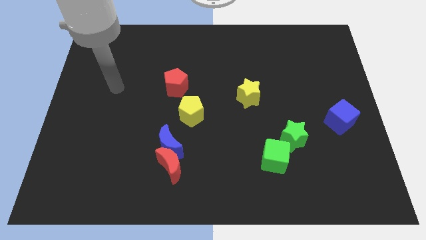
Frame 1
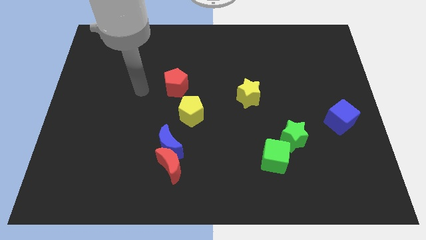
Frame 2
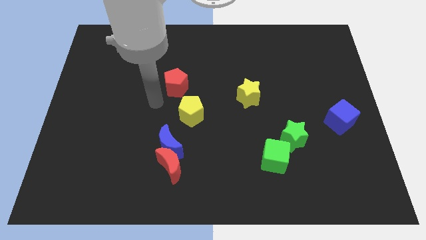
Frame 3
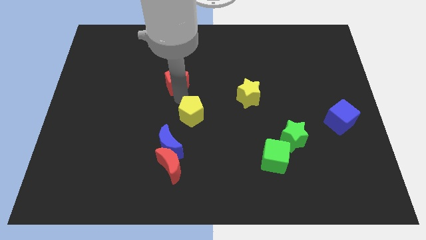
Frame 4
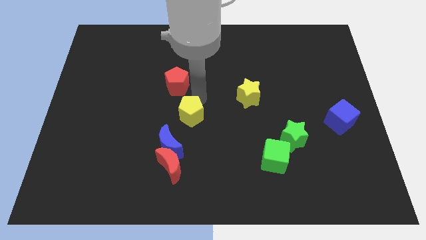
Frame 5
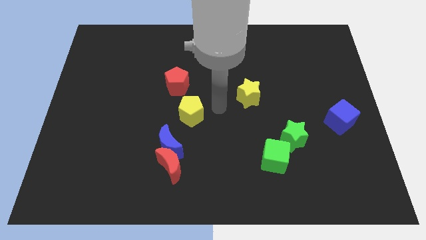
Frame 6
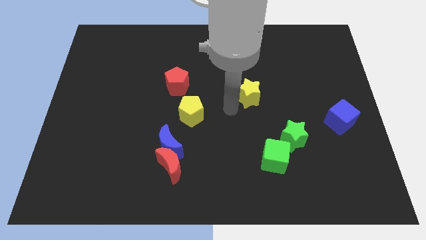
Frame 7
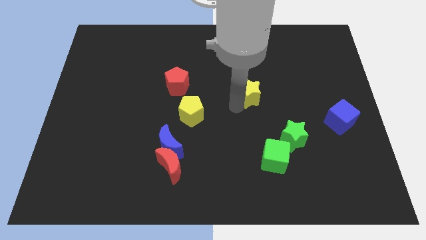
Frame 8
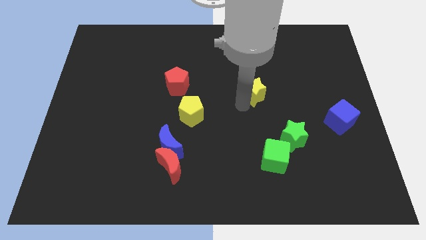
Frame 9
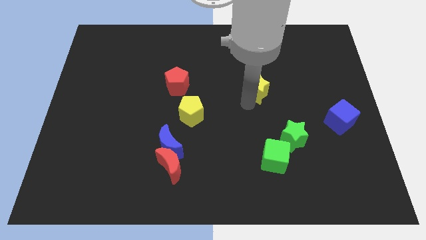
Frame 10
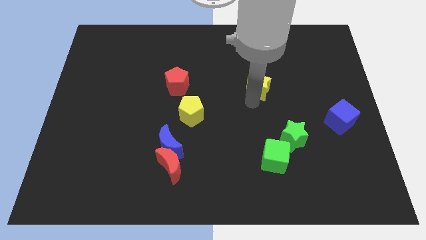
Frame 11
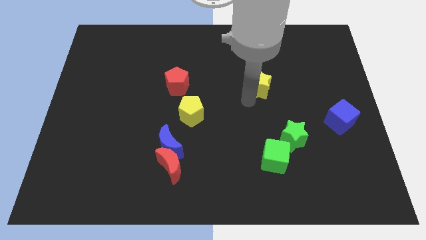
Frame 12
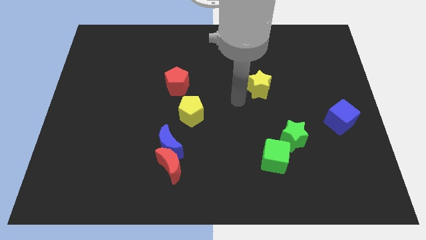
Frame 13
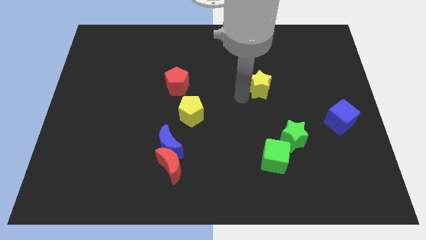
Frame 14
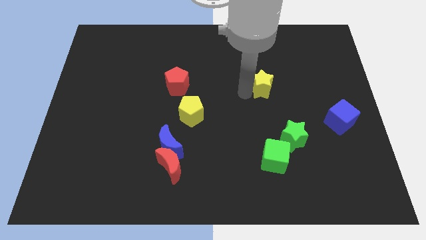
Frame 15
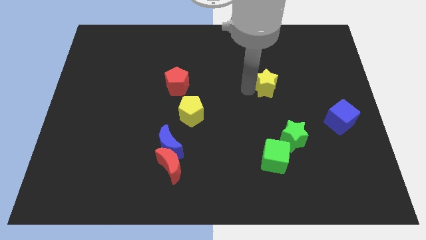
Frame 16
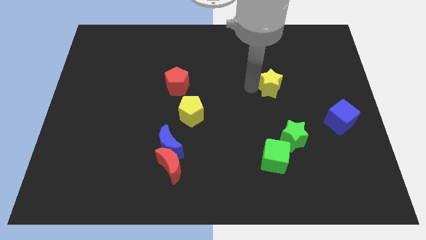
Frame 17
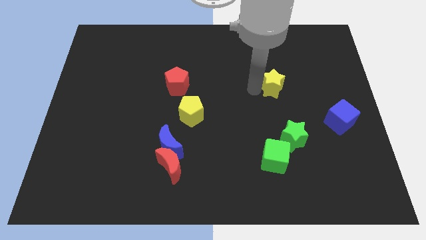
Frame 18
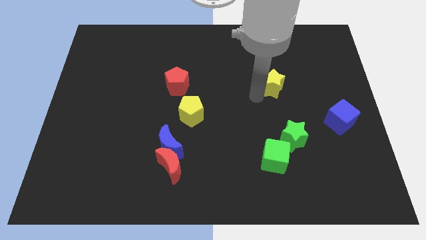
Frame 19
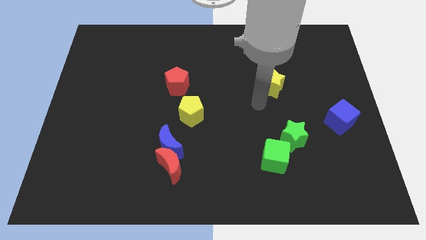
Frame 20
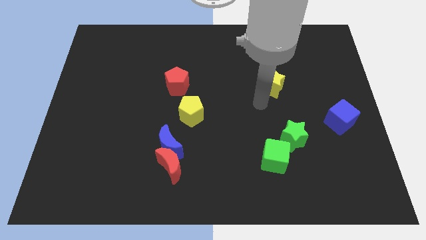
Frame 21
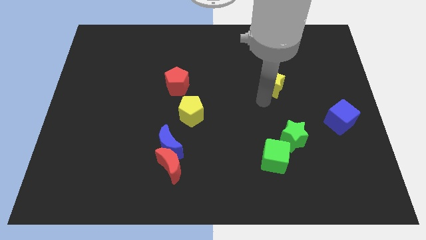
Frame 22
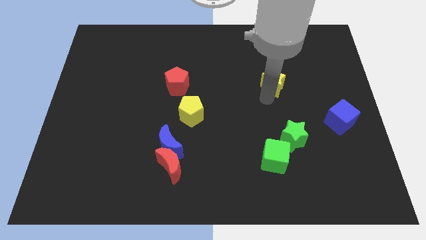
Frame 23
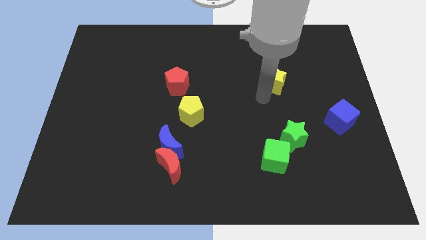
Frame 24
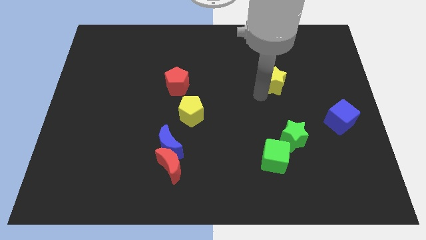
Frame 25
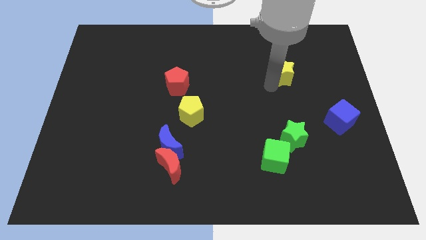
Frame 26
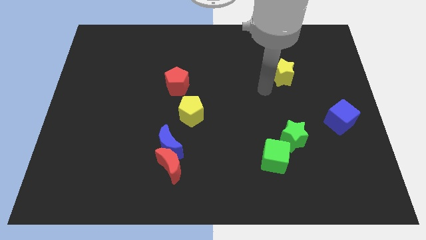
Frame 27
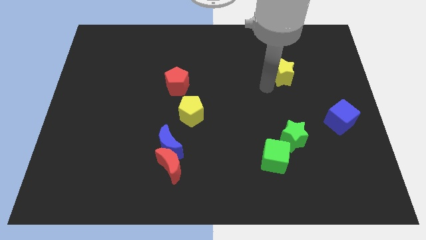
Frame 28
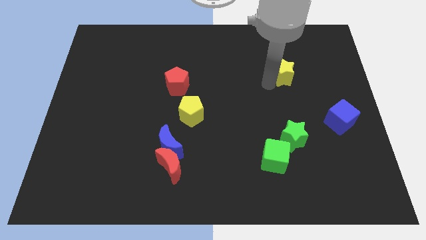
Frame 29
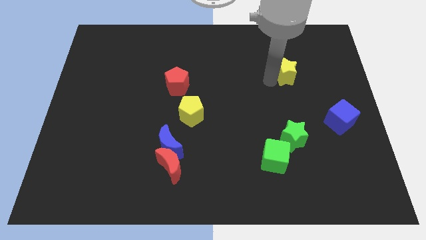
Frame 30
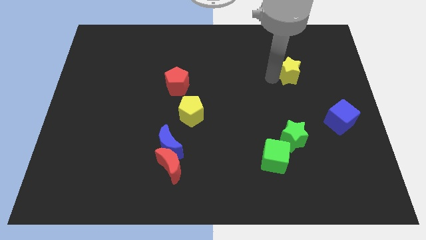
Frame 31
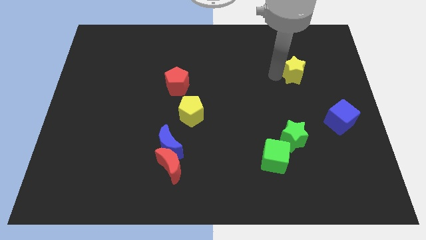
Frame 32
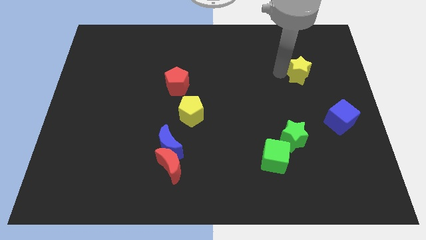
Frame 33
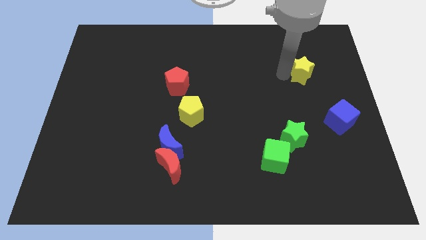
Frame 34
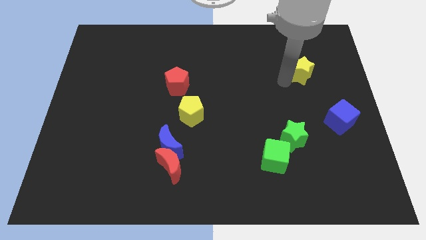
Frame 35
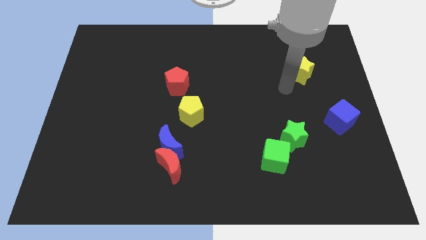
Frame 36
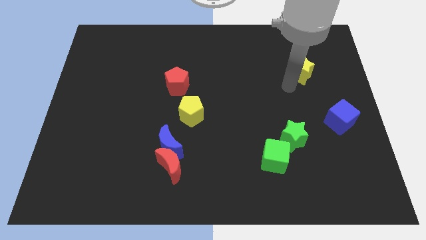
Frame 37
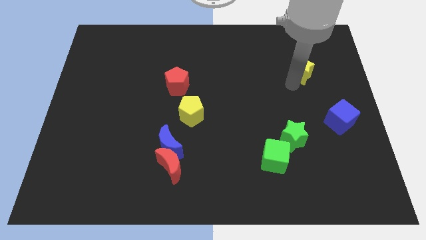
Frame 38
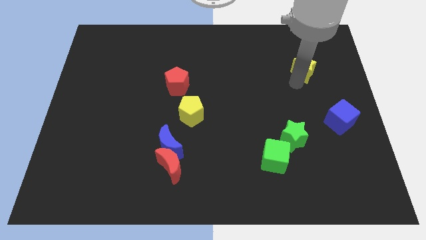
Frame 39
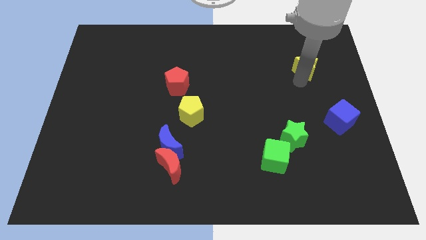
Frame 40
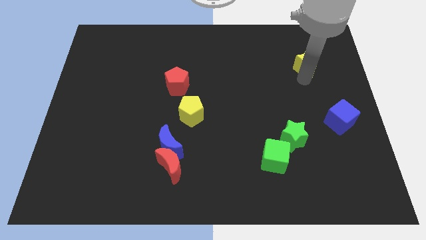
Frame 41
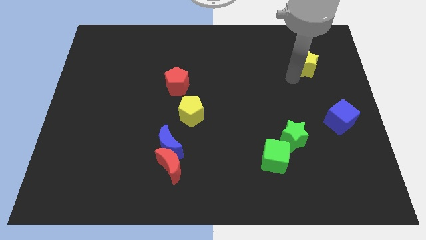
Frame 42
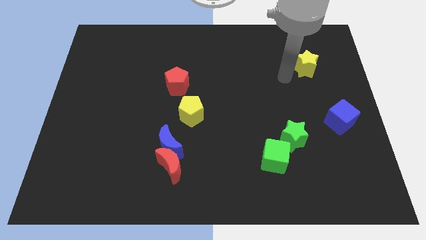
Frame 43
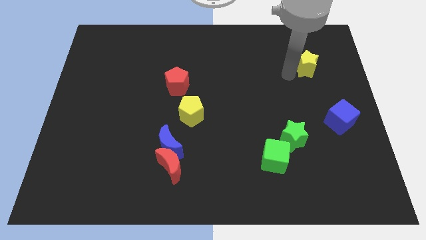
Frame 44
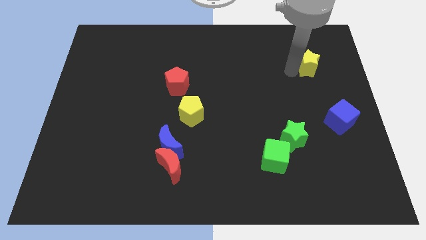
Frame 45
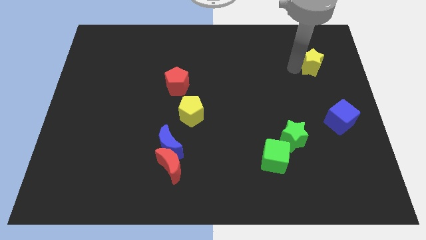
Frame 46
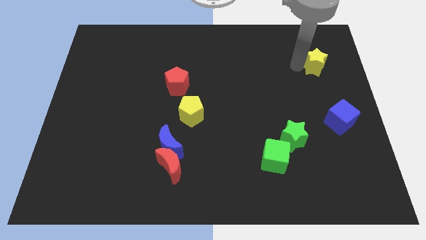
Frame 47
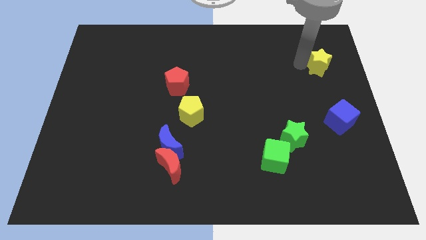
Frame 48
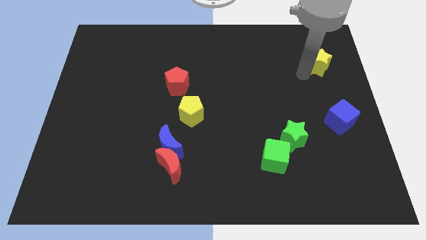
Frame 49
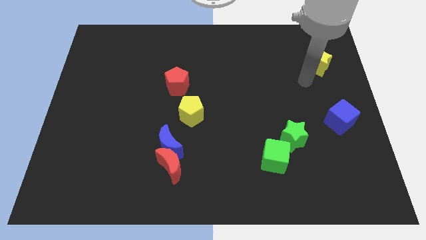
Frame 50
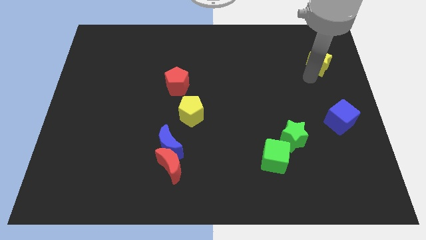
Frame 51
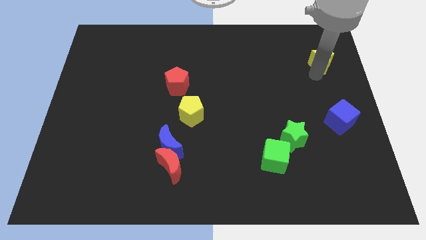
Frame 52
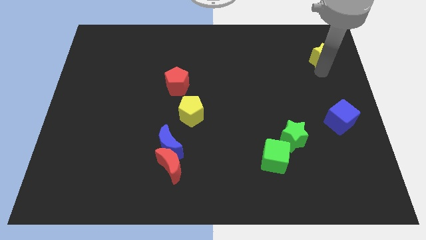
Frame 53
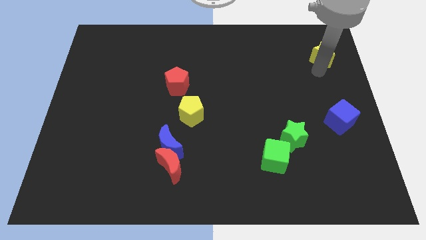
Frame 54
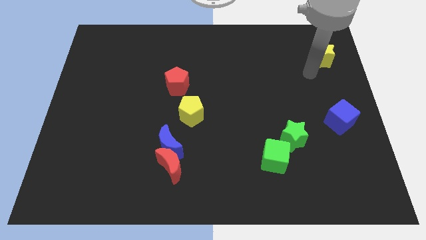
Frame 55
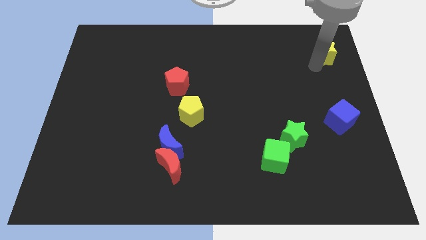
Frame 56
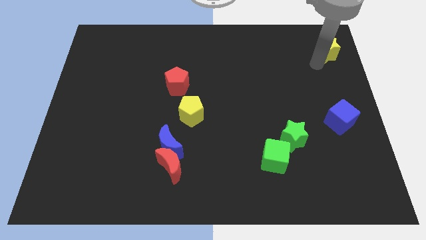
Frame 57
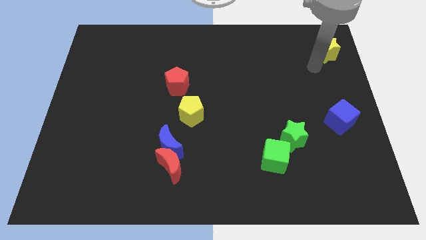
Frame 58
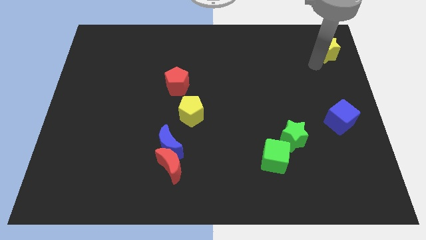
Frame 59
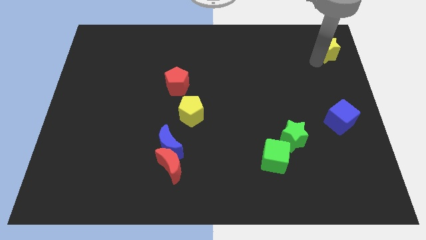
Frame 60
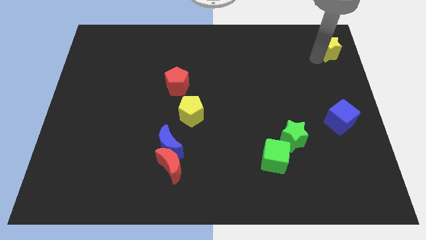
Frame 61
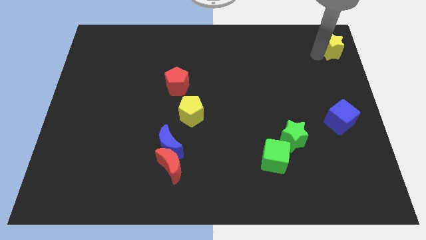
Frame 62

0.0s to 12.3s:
put the yellow star to the top right of the board
